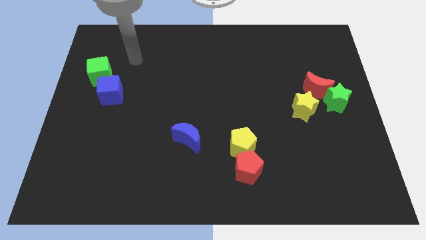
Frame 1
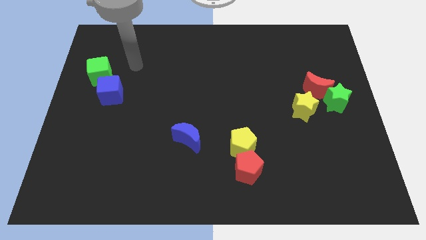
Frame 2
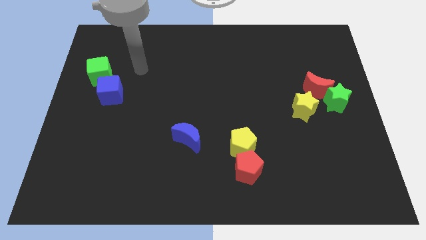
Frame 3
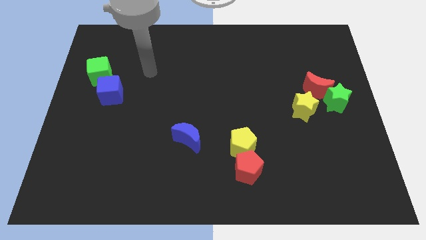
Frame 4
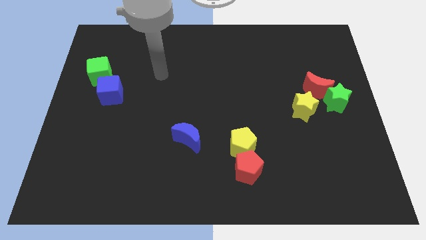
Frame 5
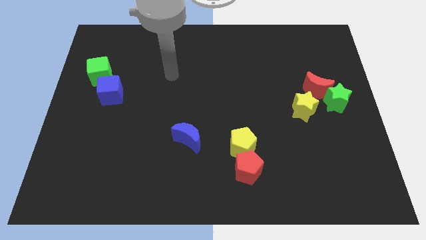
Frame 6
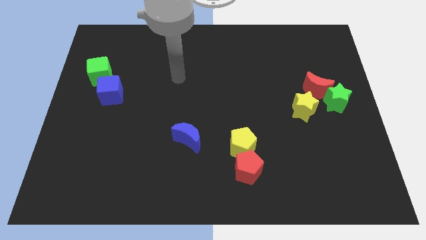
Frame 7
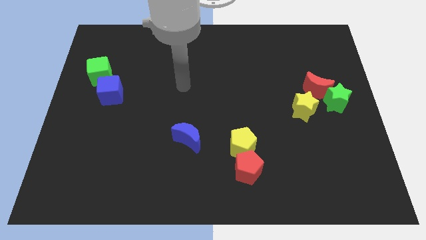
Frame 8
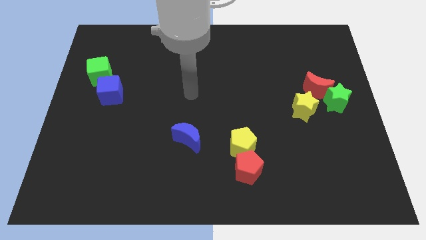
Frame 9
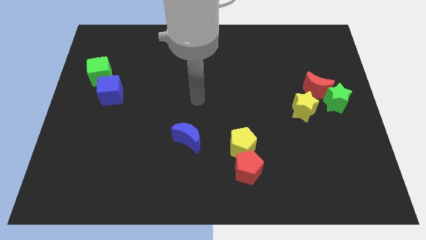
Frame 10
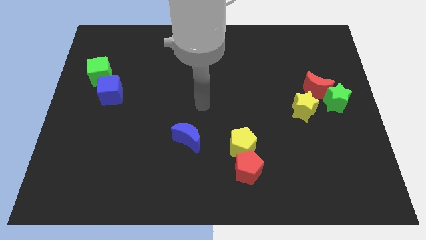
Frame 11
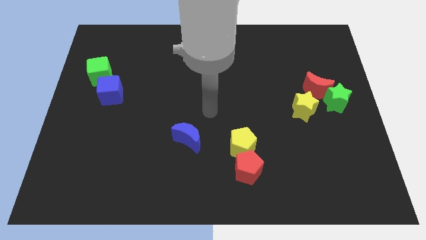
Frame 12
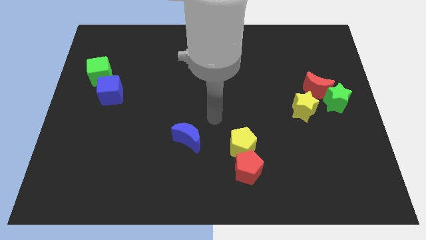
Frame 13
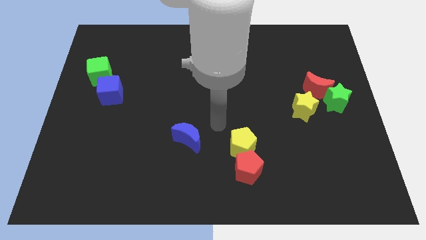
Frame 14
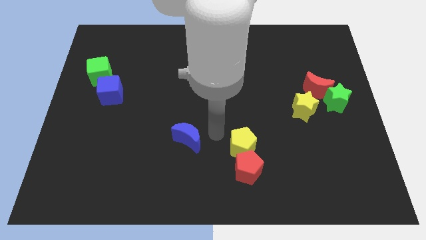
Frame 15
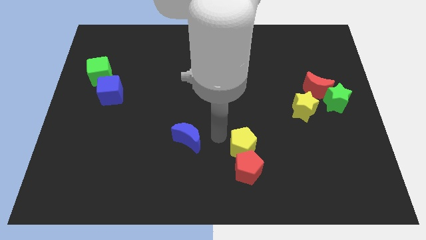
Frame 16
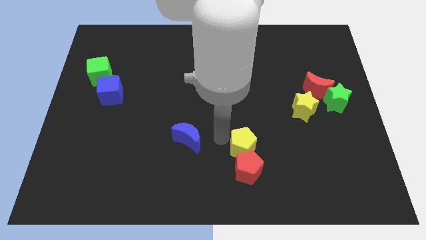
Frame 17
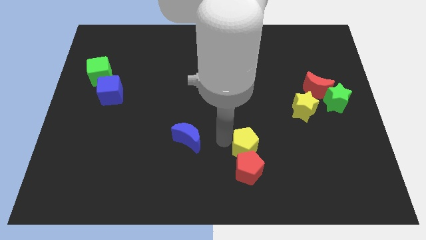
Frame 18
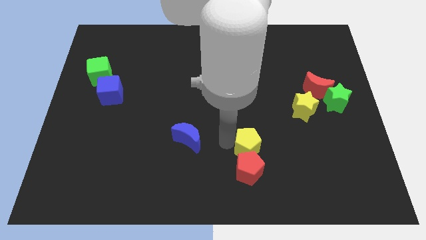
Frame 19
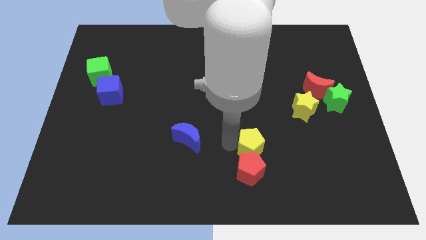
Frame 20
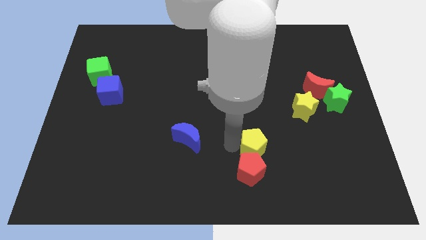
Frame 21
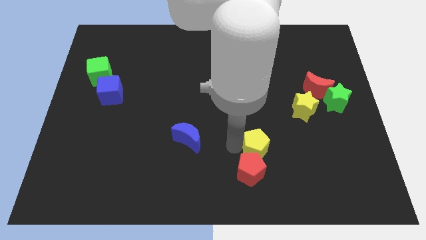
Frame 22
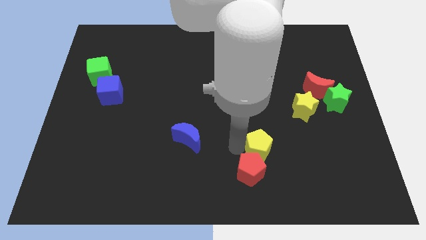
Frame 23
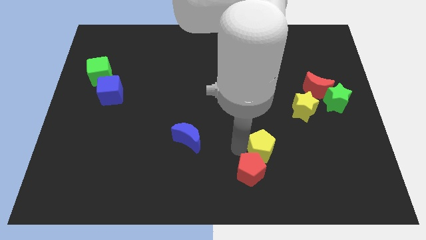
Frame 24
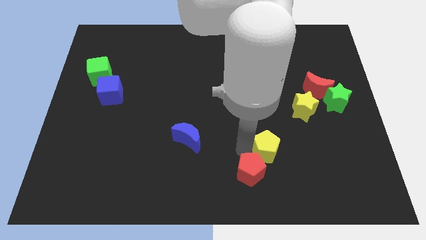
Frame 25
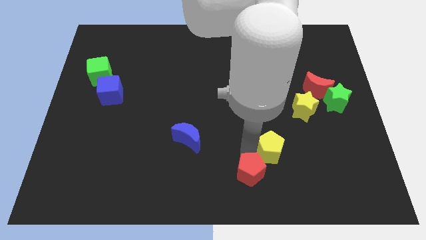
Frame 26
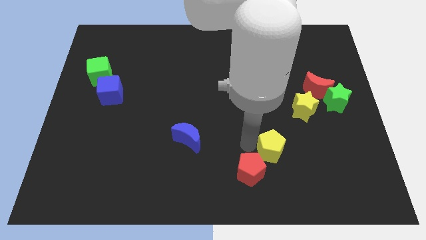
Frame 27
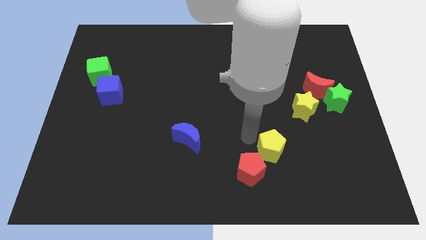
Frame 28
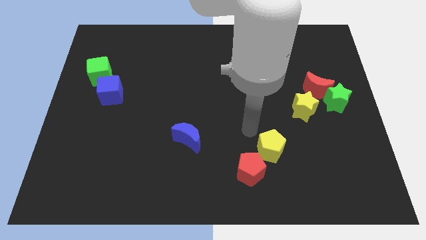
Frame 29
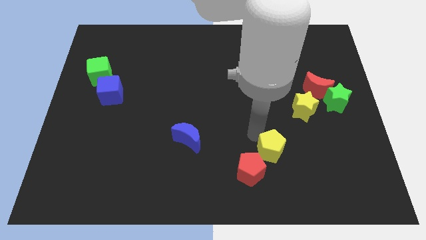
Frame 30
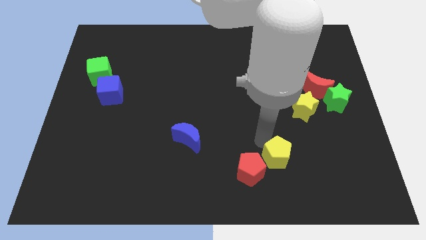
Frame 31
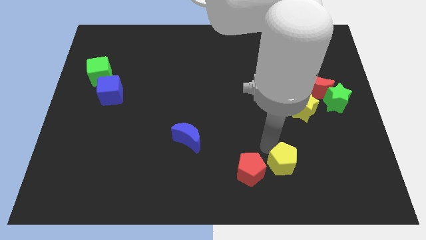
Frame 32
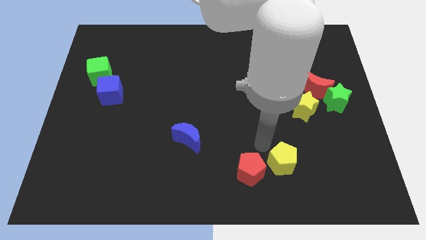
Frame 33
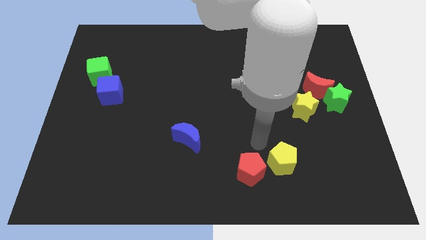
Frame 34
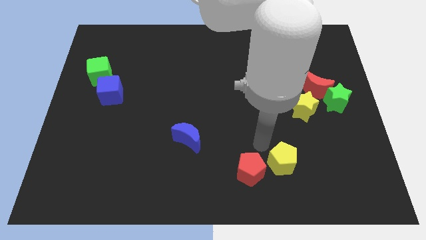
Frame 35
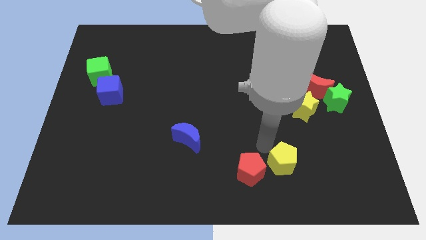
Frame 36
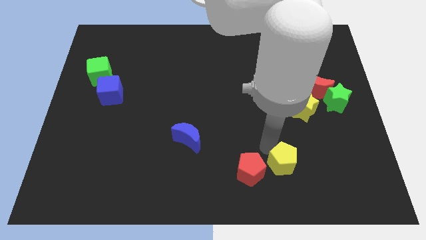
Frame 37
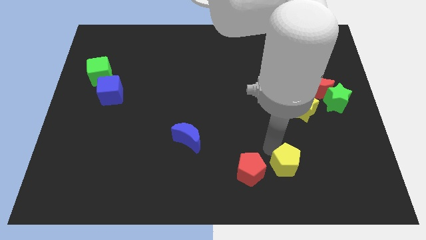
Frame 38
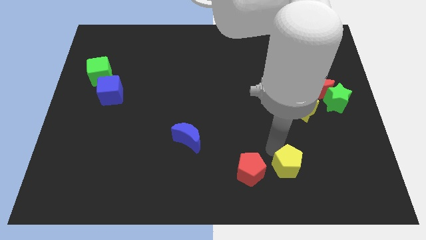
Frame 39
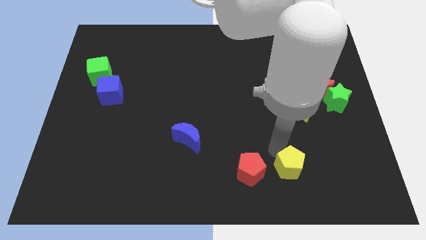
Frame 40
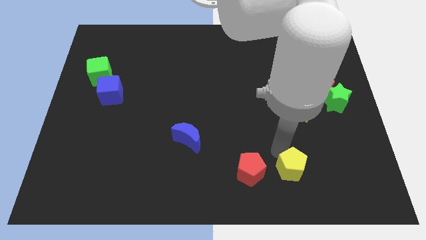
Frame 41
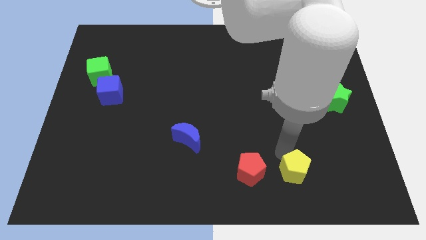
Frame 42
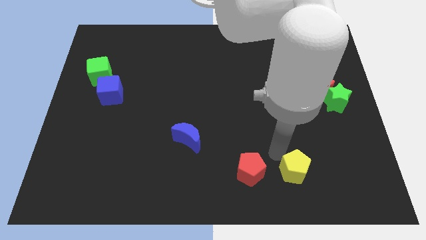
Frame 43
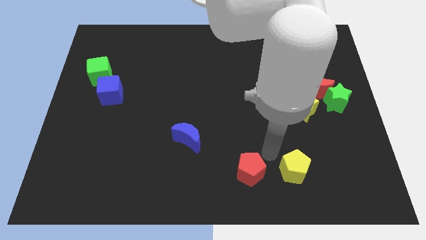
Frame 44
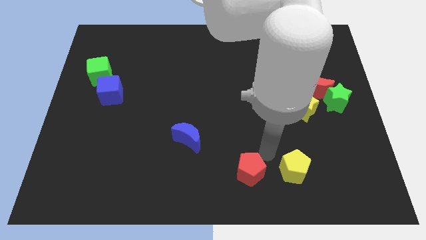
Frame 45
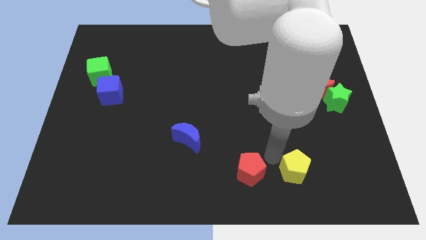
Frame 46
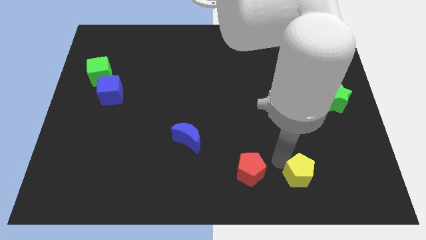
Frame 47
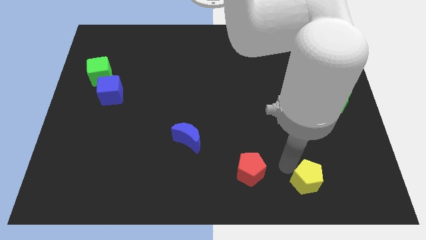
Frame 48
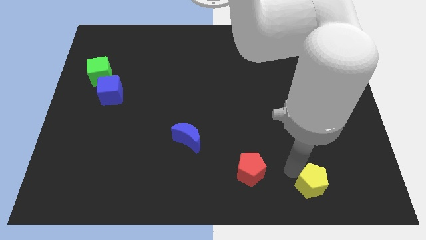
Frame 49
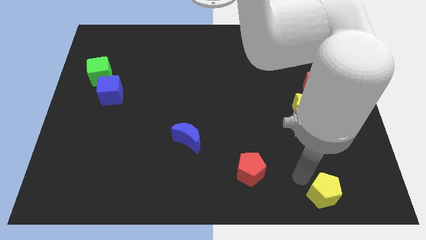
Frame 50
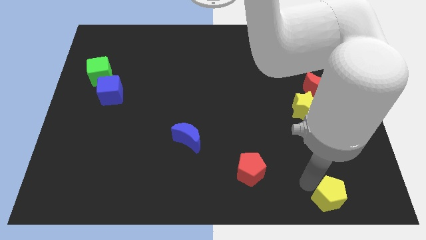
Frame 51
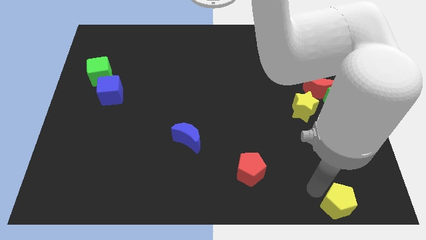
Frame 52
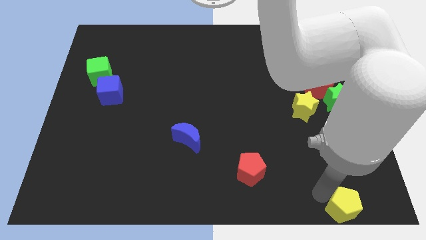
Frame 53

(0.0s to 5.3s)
move the yellow pentagon to the bottom right
